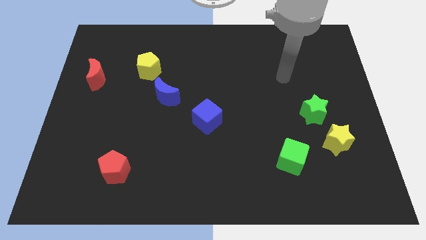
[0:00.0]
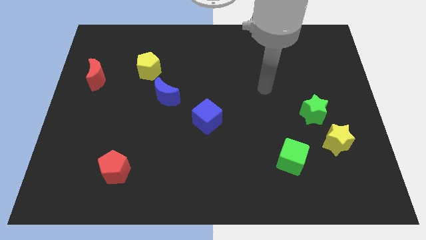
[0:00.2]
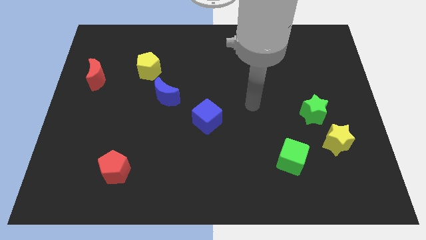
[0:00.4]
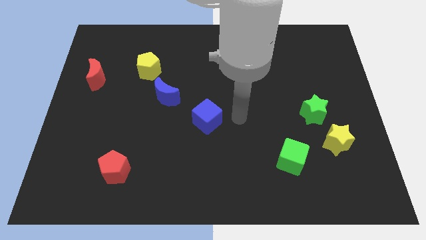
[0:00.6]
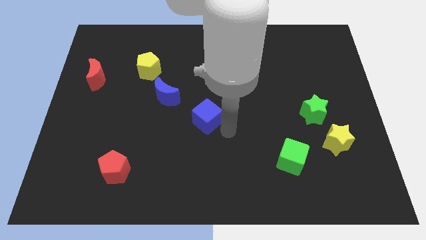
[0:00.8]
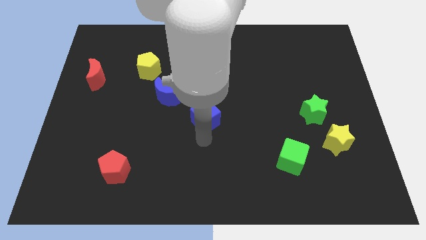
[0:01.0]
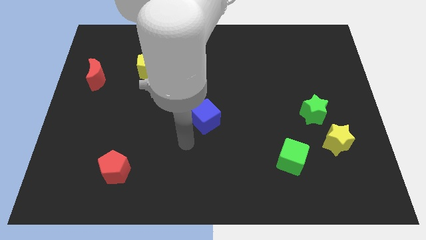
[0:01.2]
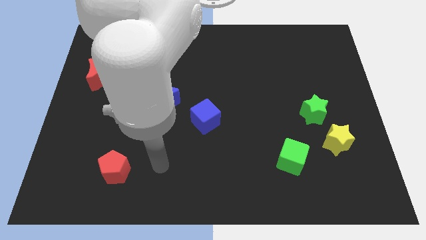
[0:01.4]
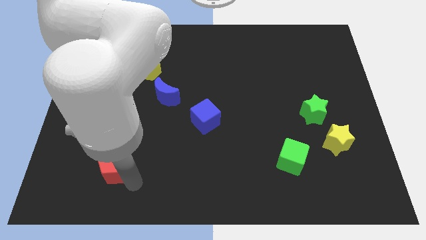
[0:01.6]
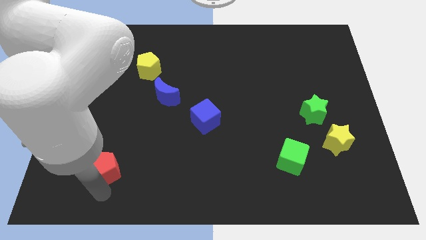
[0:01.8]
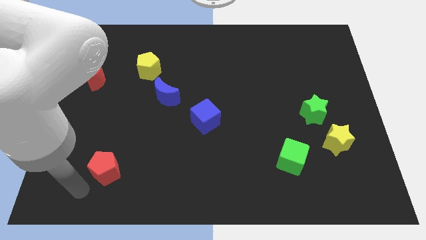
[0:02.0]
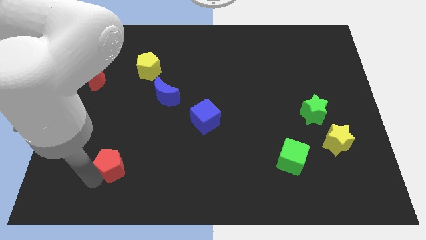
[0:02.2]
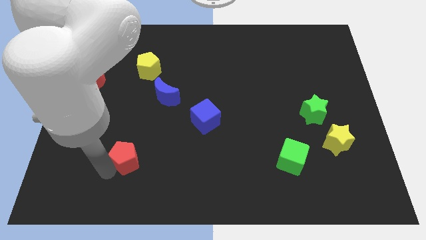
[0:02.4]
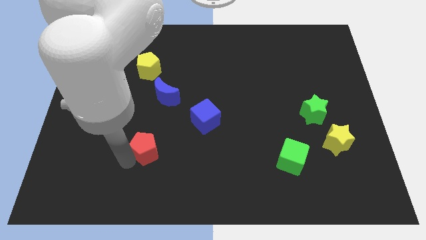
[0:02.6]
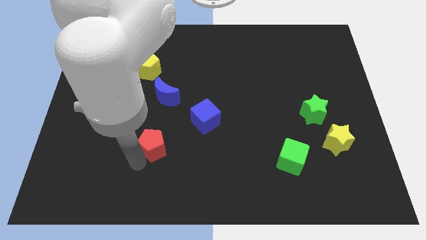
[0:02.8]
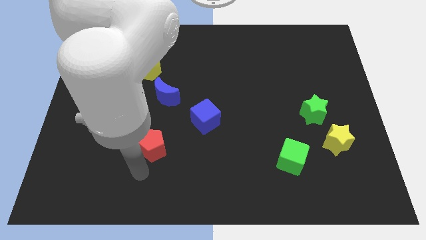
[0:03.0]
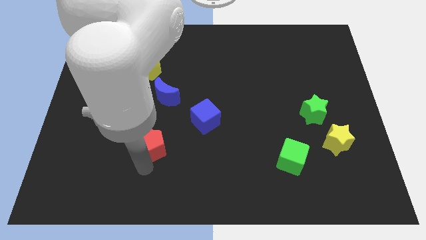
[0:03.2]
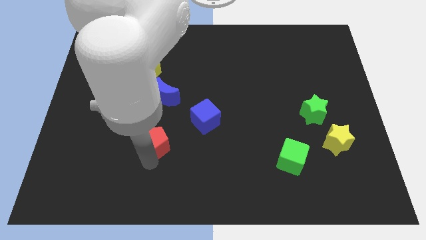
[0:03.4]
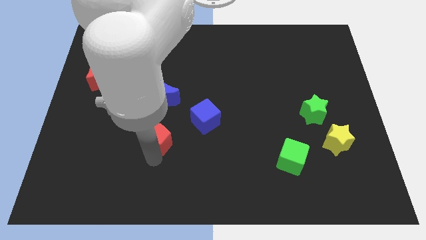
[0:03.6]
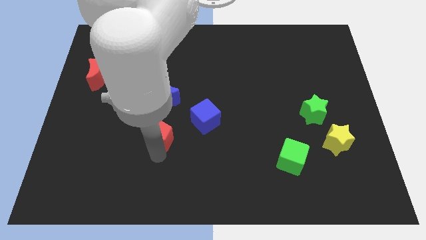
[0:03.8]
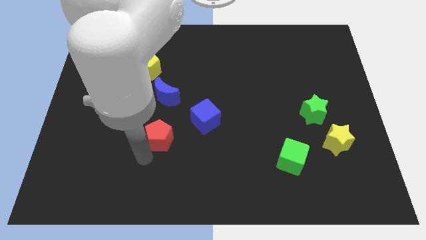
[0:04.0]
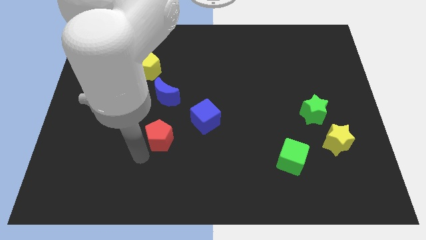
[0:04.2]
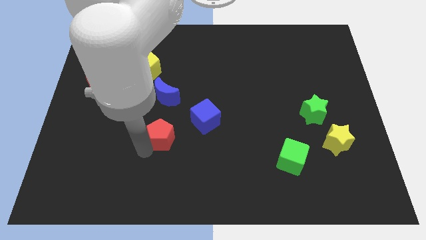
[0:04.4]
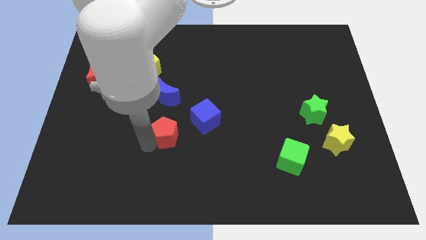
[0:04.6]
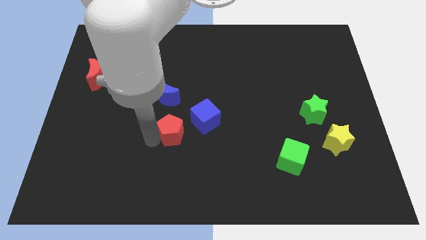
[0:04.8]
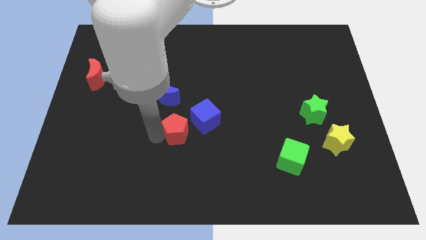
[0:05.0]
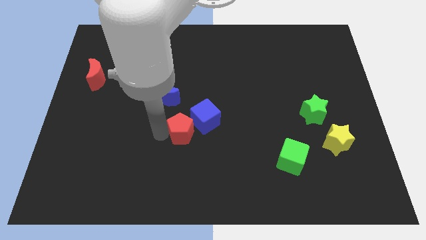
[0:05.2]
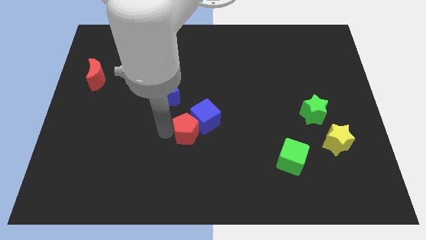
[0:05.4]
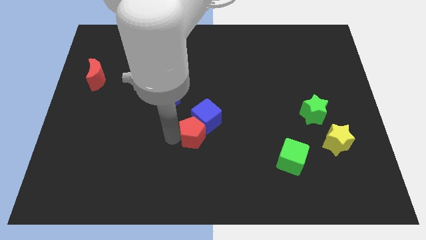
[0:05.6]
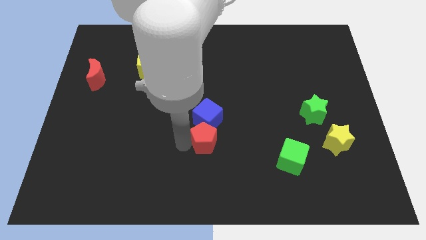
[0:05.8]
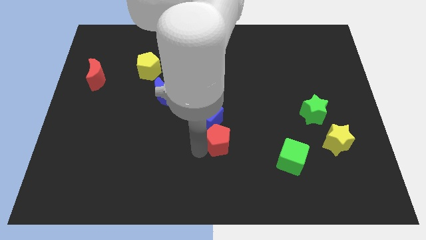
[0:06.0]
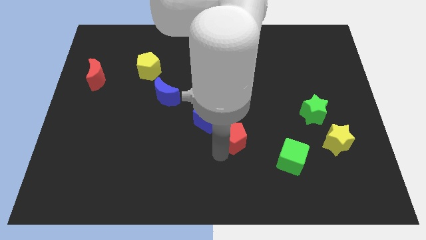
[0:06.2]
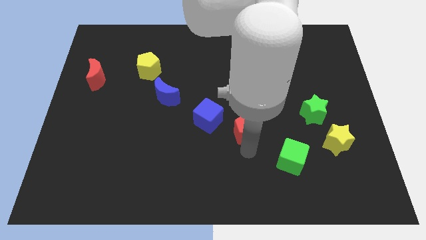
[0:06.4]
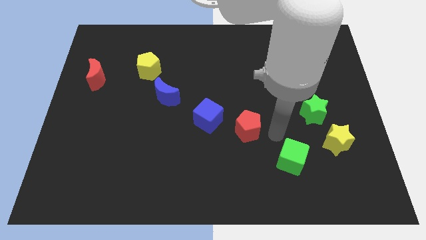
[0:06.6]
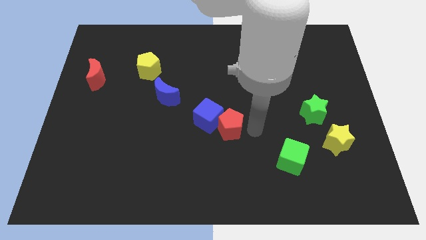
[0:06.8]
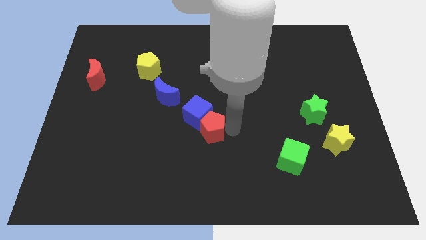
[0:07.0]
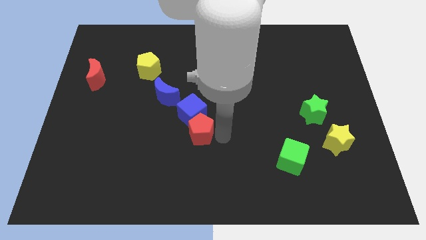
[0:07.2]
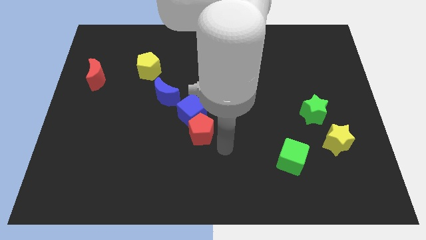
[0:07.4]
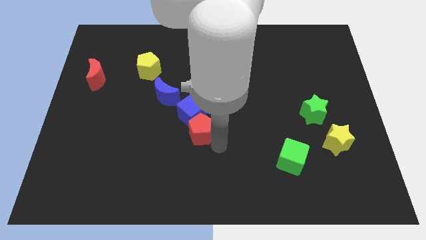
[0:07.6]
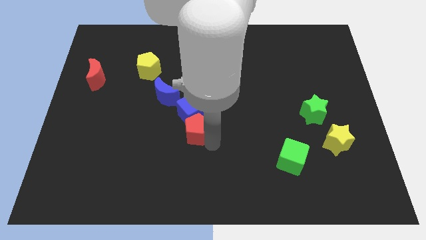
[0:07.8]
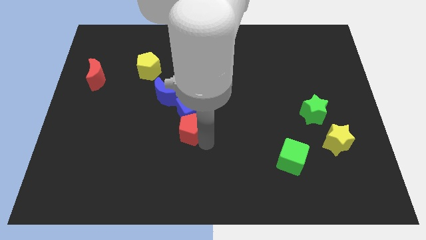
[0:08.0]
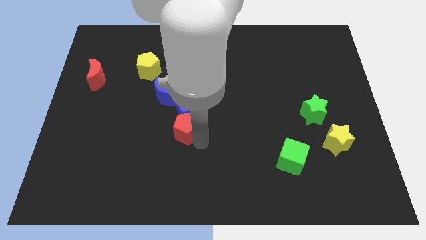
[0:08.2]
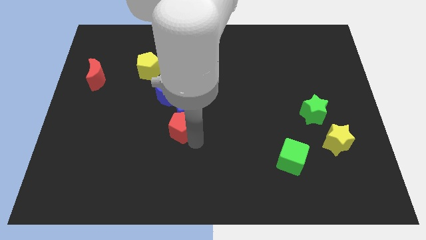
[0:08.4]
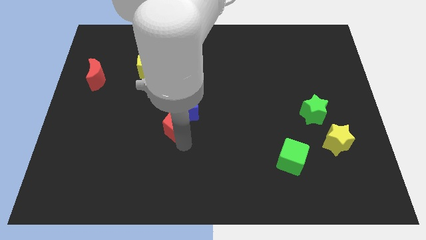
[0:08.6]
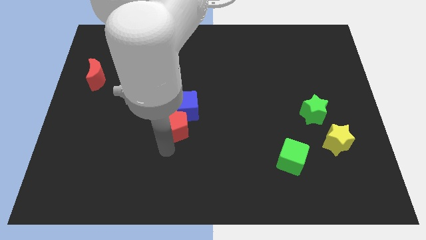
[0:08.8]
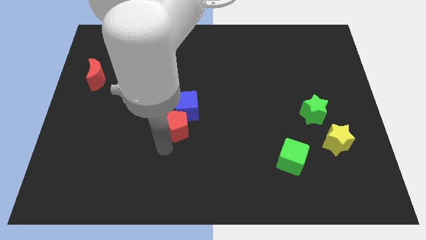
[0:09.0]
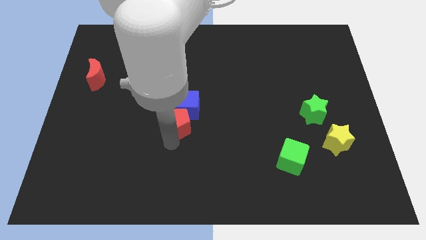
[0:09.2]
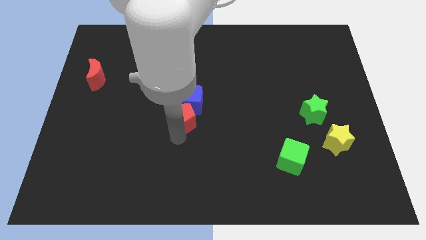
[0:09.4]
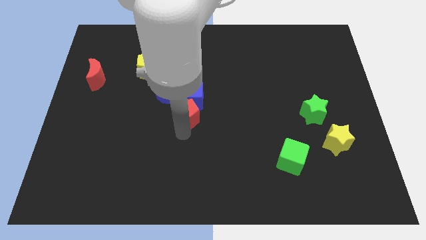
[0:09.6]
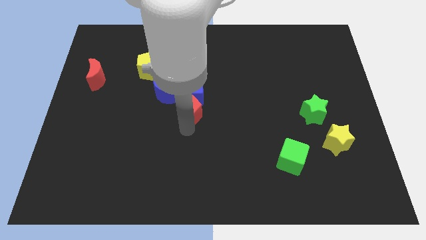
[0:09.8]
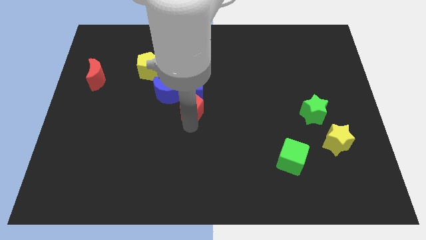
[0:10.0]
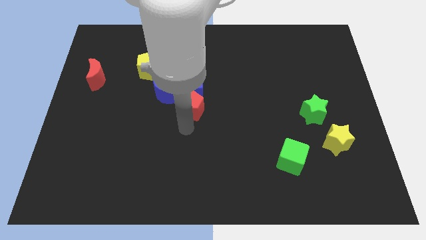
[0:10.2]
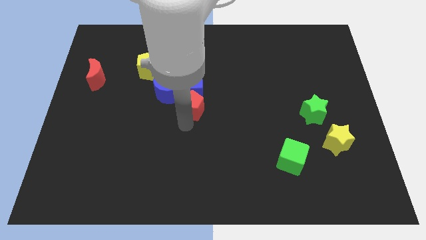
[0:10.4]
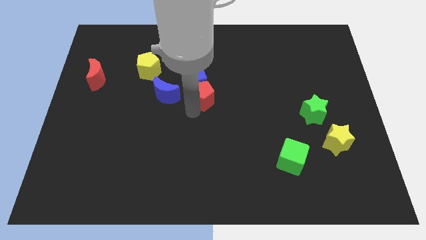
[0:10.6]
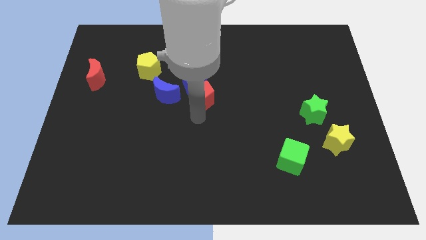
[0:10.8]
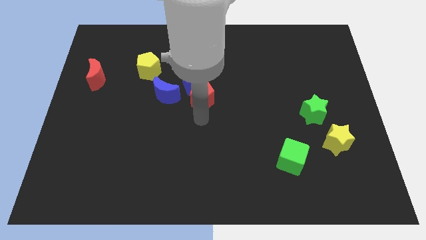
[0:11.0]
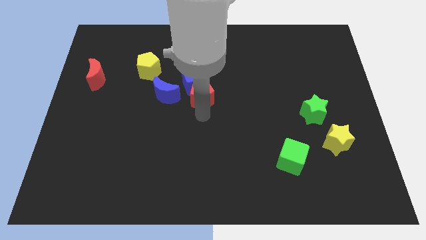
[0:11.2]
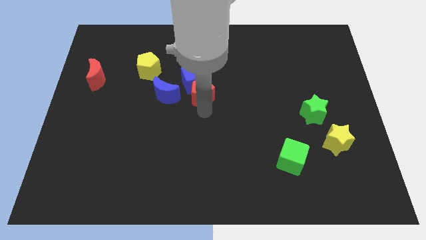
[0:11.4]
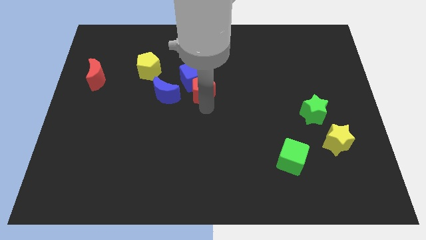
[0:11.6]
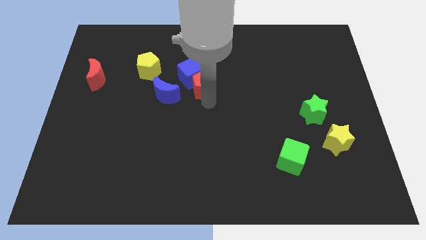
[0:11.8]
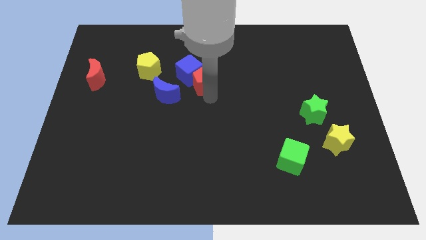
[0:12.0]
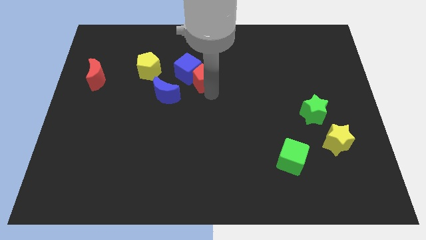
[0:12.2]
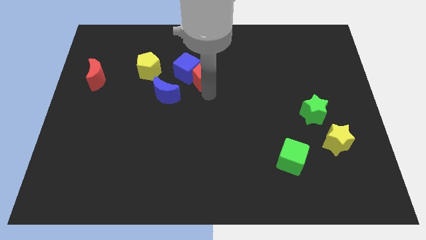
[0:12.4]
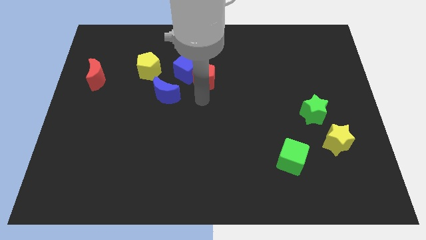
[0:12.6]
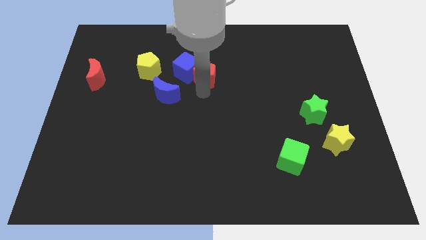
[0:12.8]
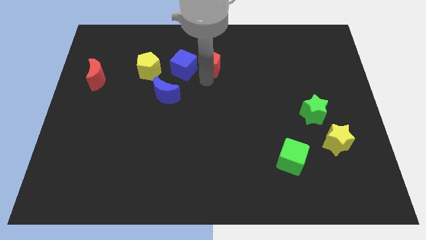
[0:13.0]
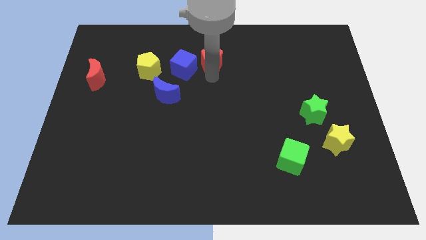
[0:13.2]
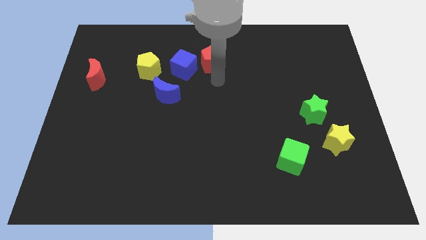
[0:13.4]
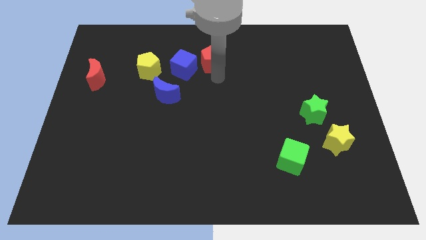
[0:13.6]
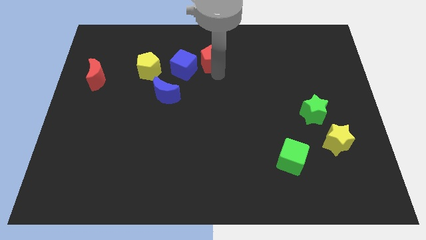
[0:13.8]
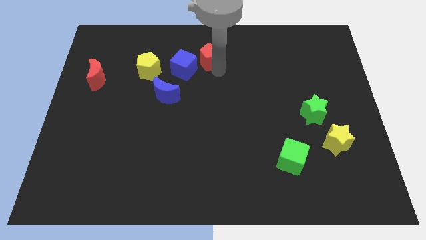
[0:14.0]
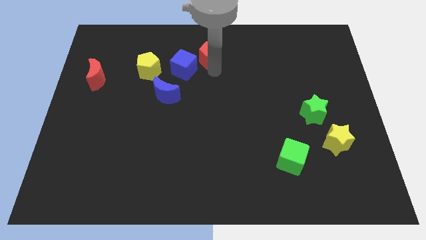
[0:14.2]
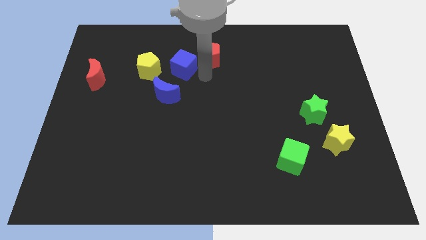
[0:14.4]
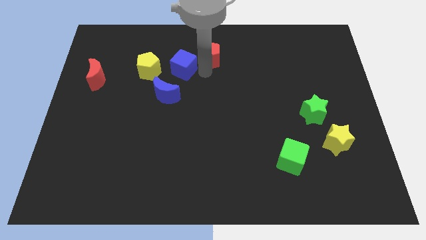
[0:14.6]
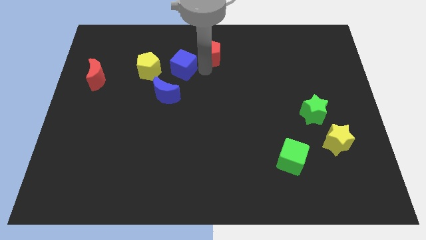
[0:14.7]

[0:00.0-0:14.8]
move the red pentagon to the top
